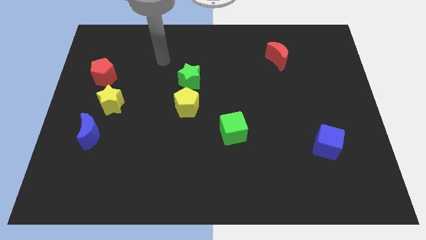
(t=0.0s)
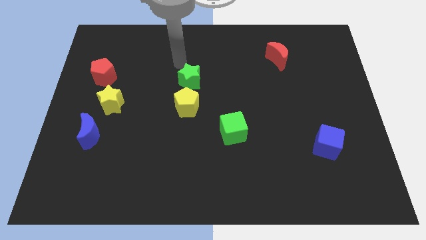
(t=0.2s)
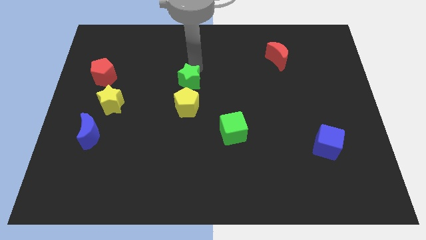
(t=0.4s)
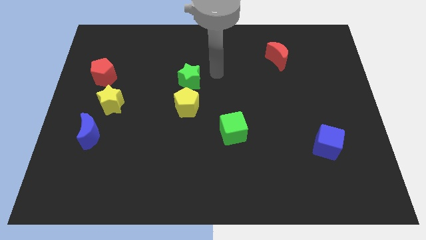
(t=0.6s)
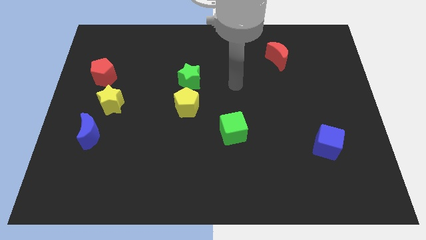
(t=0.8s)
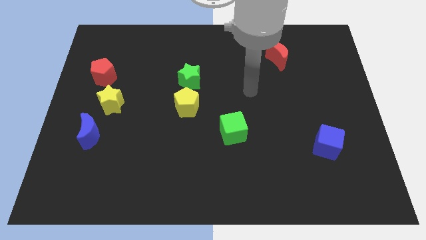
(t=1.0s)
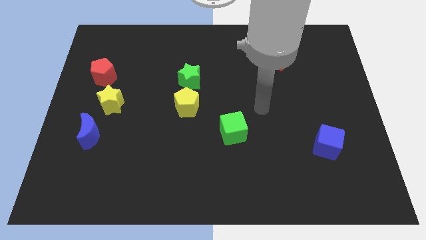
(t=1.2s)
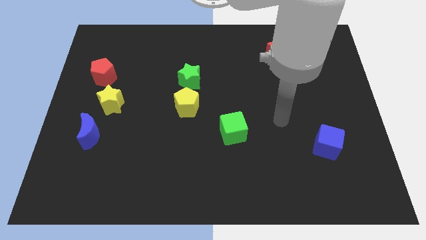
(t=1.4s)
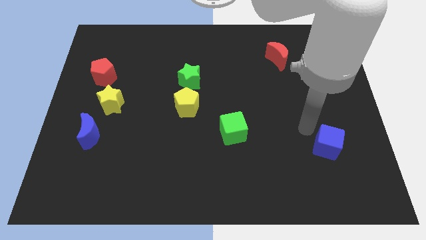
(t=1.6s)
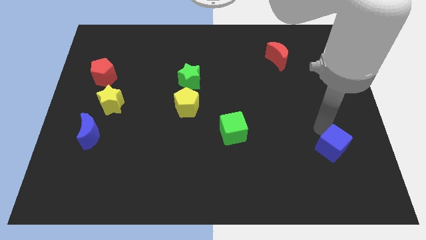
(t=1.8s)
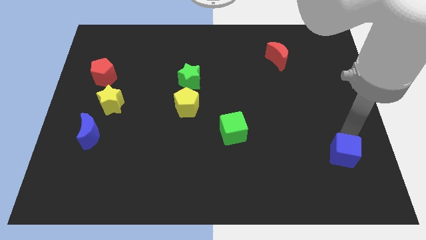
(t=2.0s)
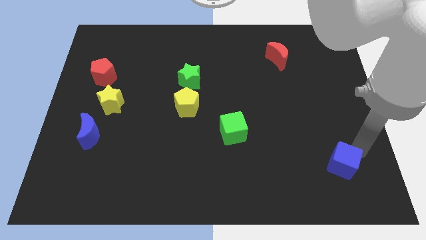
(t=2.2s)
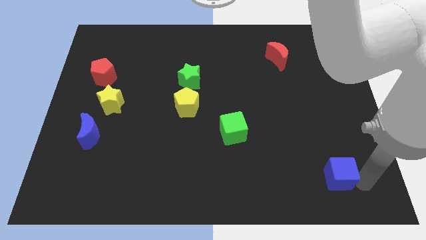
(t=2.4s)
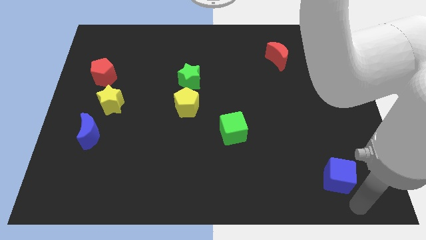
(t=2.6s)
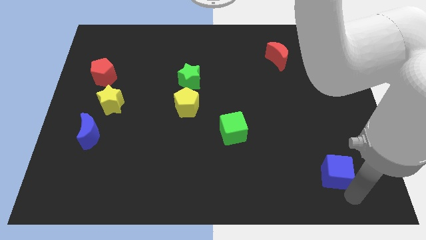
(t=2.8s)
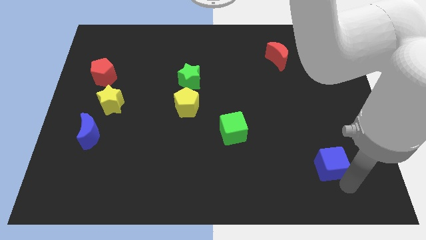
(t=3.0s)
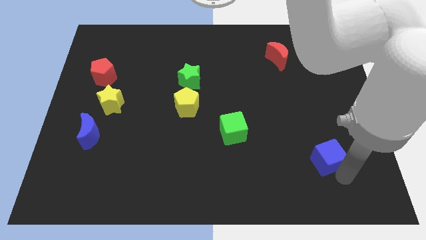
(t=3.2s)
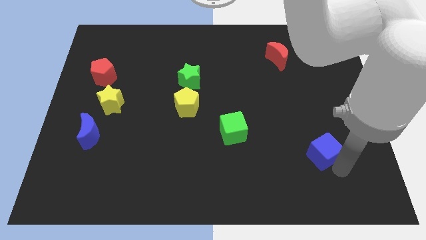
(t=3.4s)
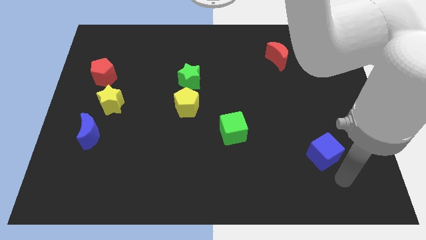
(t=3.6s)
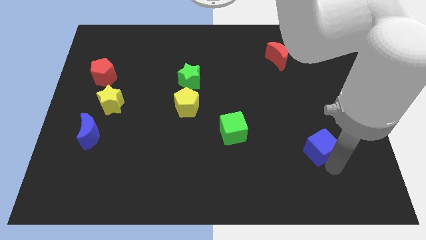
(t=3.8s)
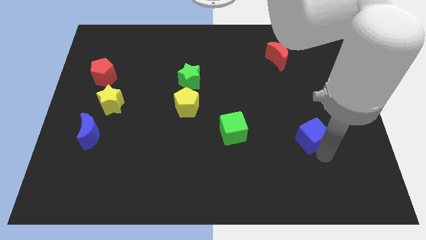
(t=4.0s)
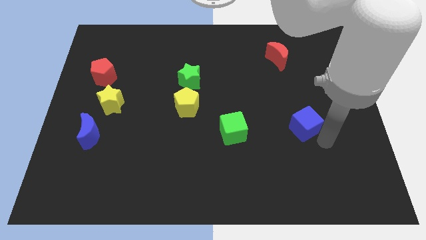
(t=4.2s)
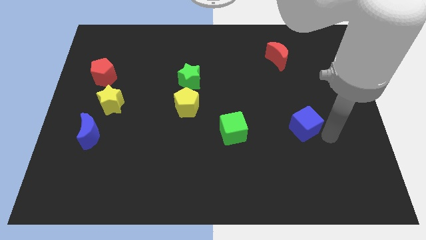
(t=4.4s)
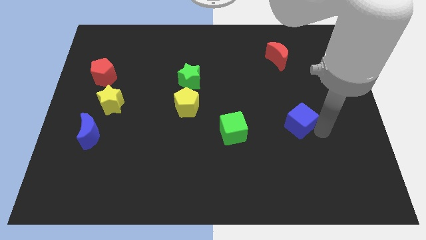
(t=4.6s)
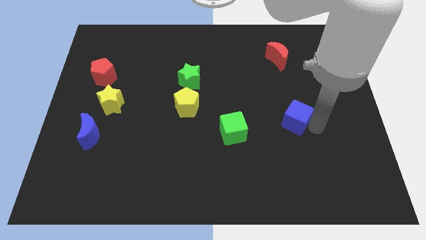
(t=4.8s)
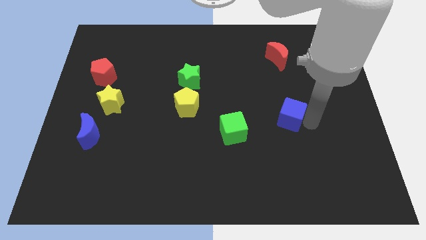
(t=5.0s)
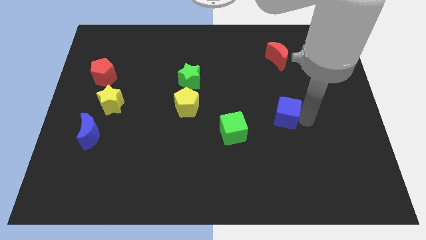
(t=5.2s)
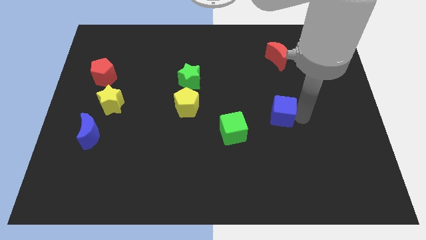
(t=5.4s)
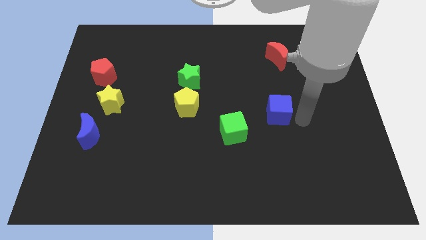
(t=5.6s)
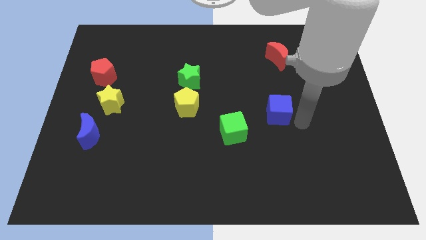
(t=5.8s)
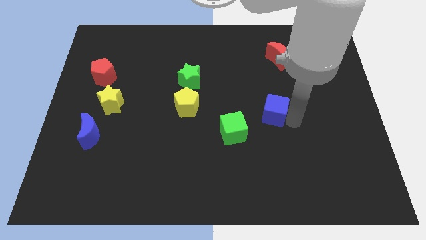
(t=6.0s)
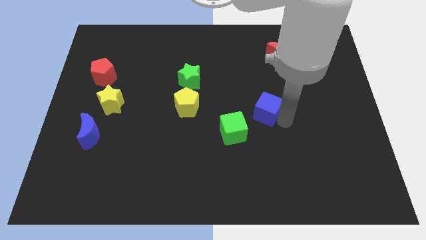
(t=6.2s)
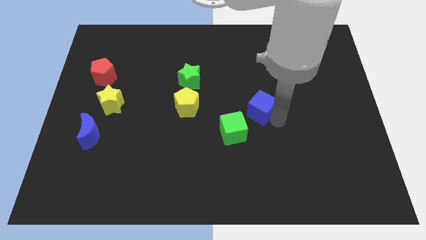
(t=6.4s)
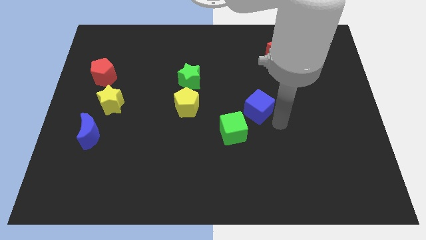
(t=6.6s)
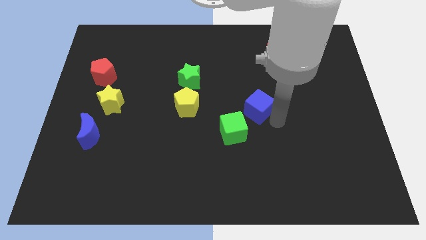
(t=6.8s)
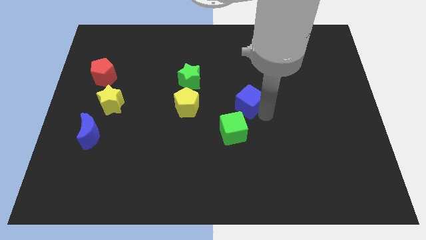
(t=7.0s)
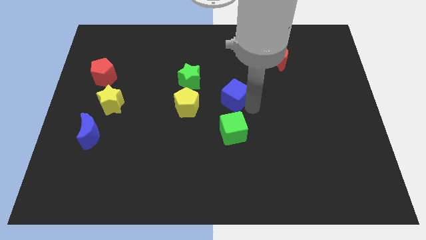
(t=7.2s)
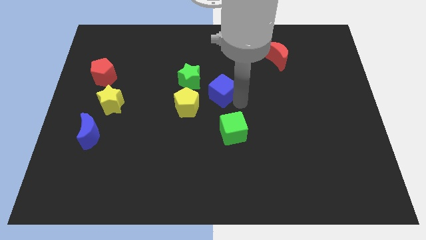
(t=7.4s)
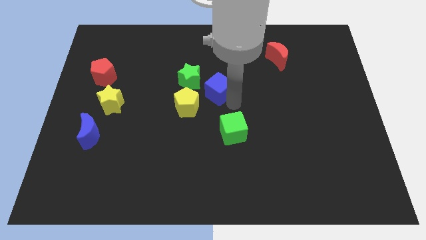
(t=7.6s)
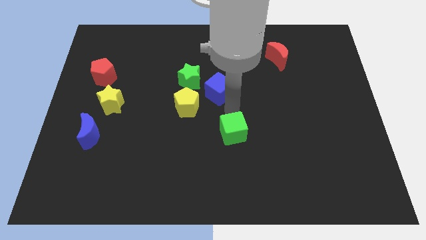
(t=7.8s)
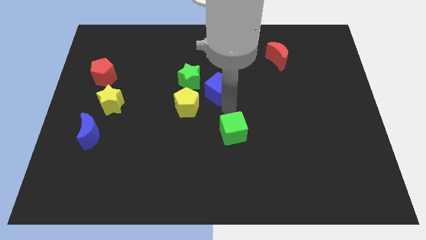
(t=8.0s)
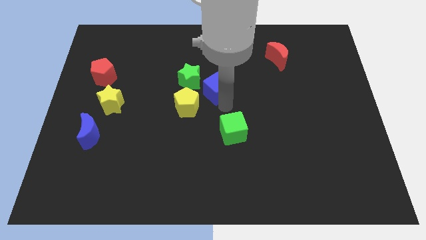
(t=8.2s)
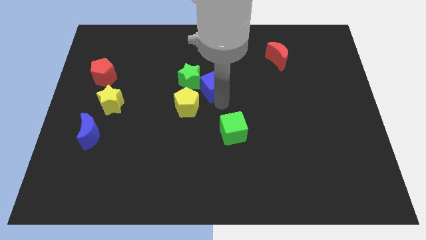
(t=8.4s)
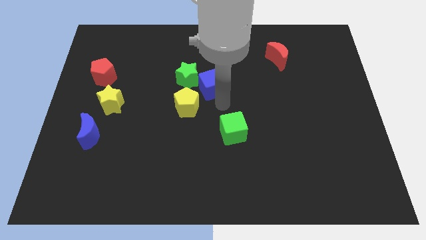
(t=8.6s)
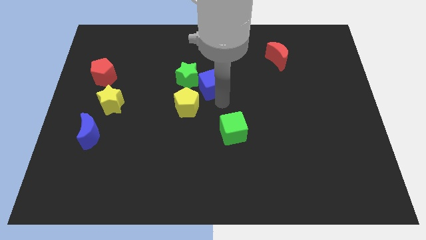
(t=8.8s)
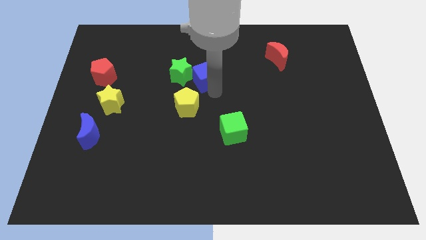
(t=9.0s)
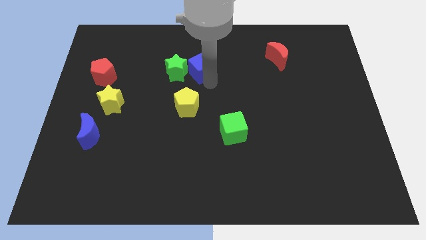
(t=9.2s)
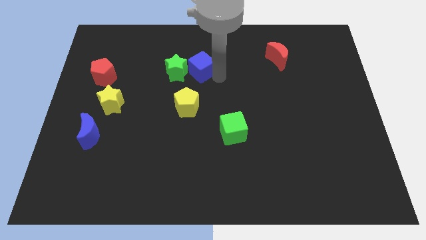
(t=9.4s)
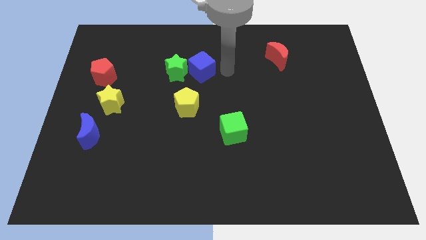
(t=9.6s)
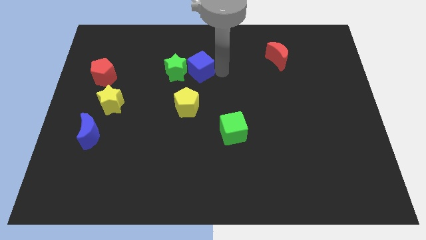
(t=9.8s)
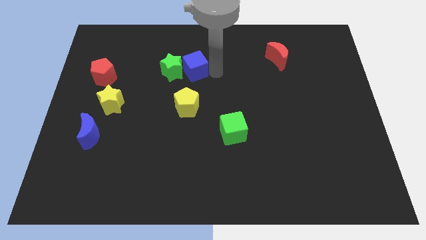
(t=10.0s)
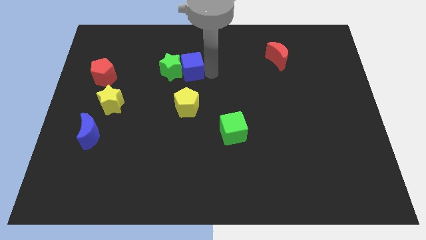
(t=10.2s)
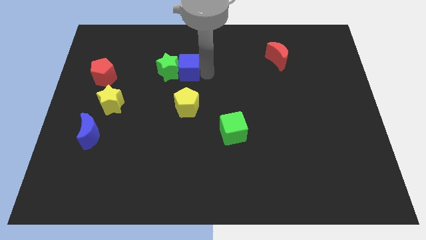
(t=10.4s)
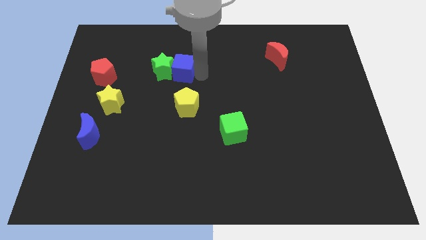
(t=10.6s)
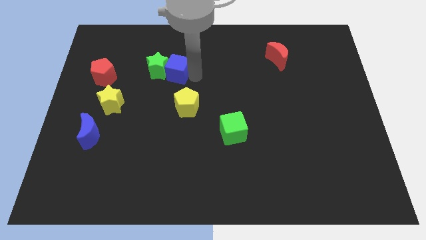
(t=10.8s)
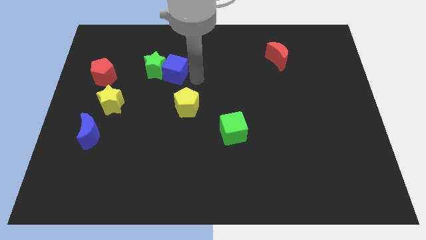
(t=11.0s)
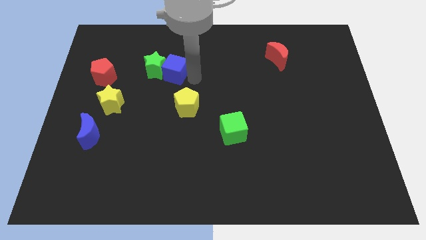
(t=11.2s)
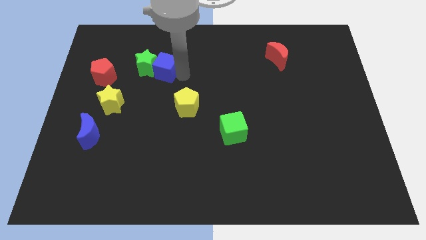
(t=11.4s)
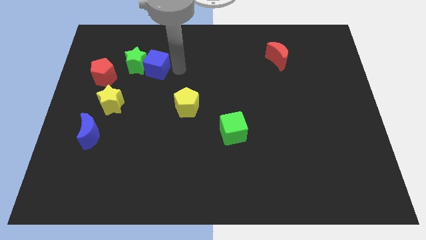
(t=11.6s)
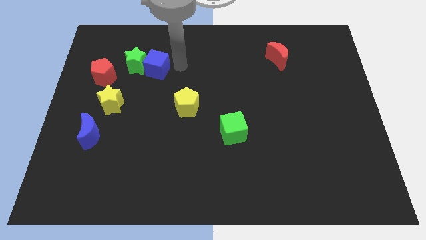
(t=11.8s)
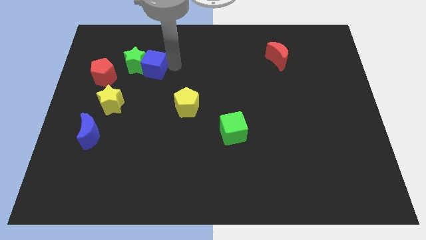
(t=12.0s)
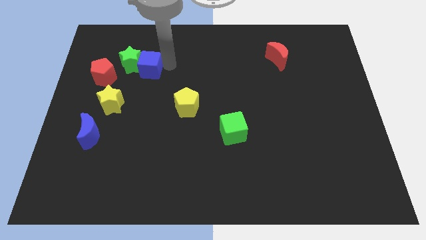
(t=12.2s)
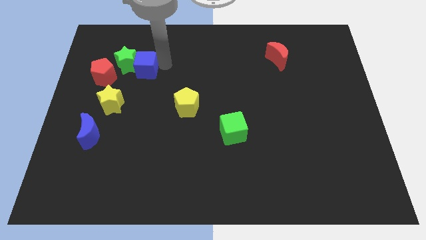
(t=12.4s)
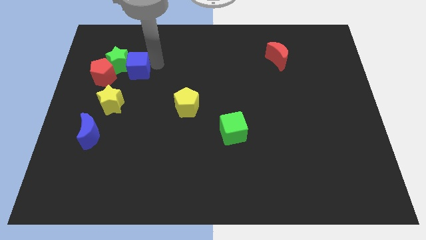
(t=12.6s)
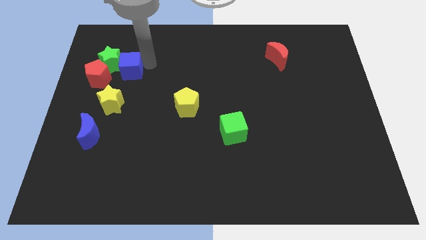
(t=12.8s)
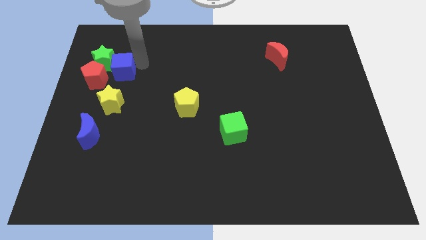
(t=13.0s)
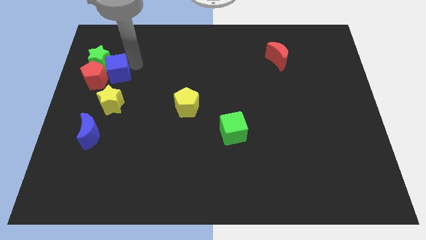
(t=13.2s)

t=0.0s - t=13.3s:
put the blue cube towards the red pentagon
